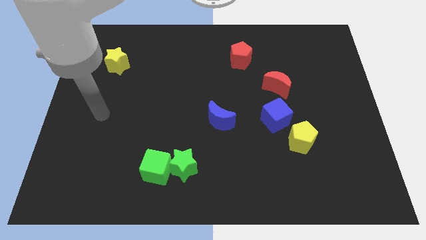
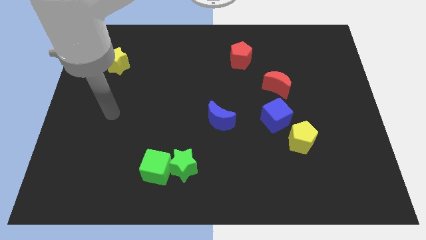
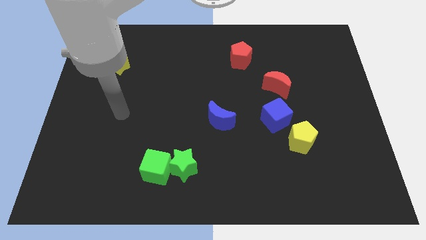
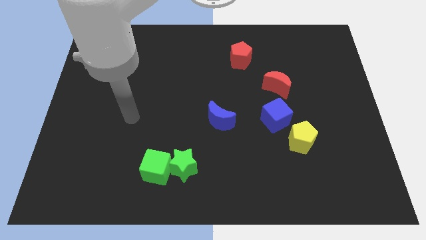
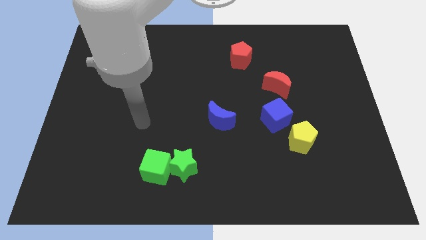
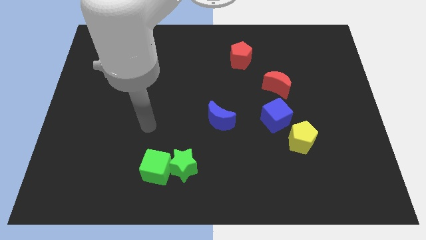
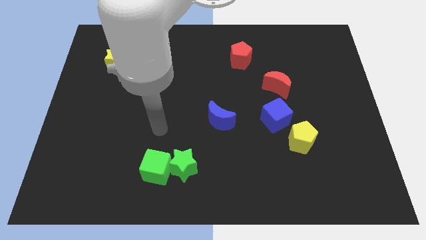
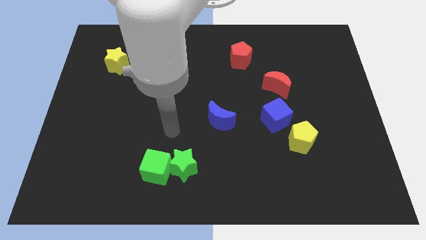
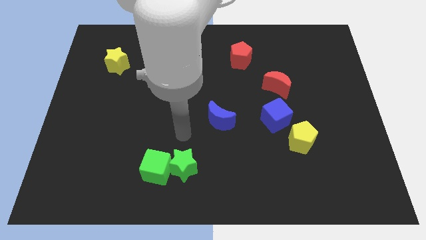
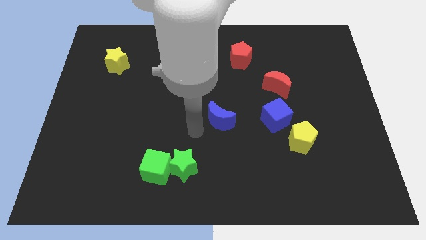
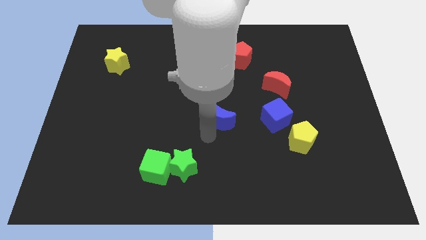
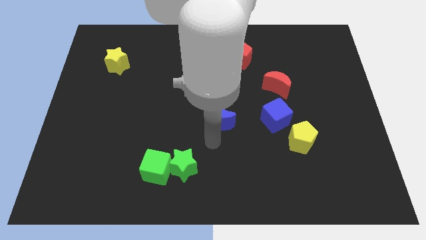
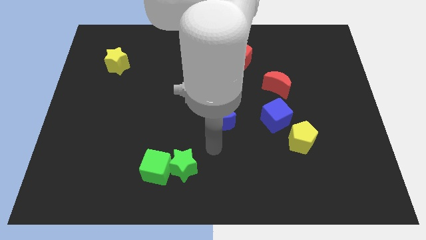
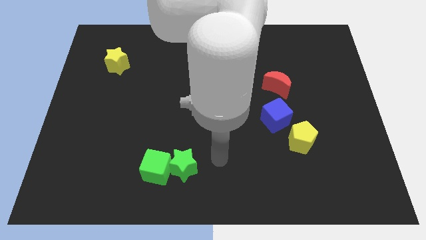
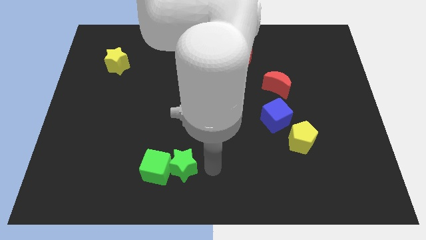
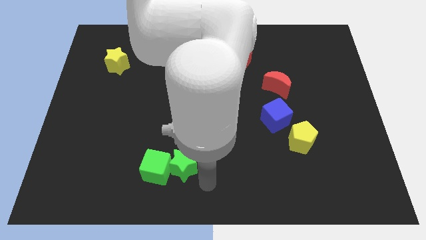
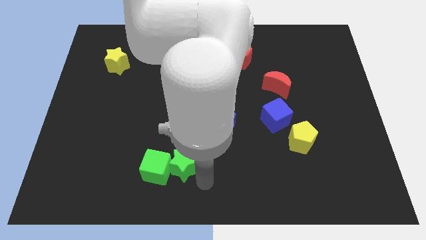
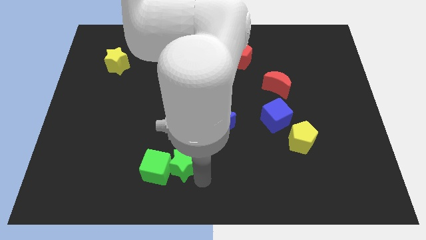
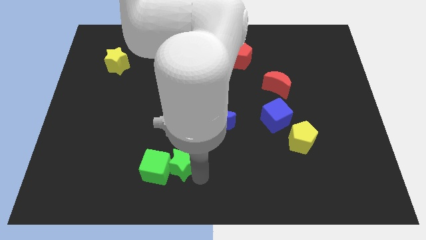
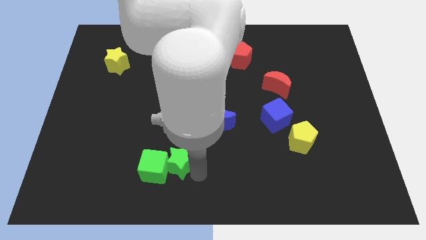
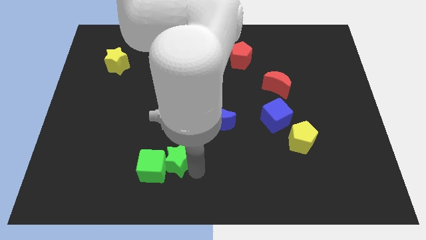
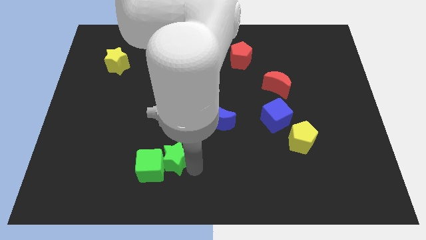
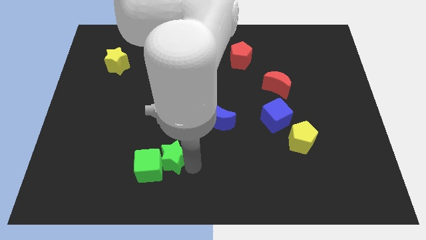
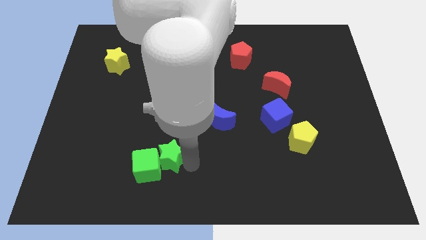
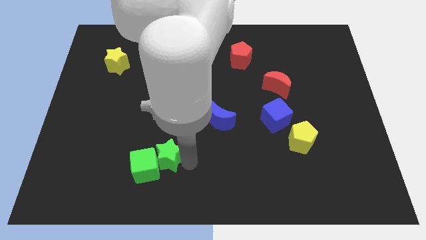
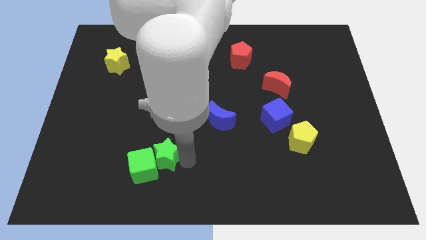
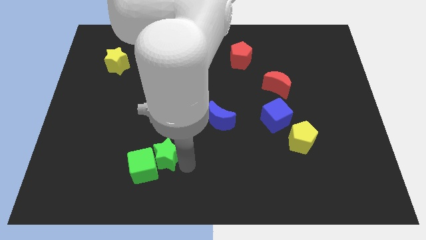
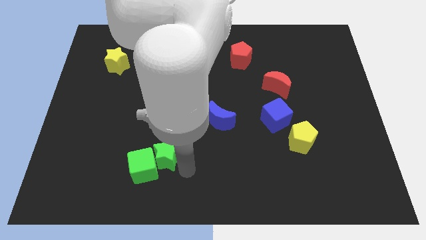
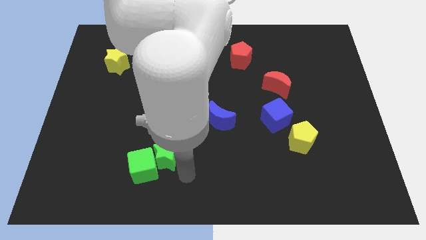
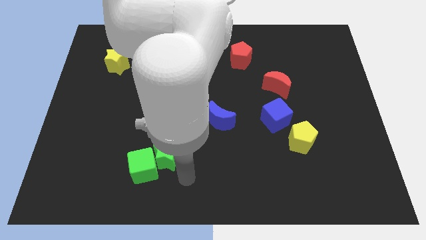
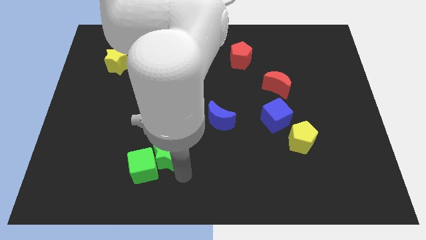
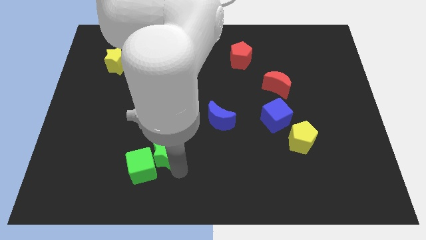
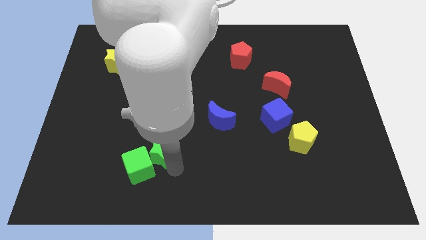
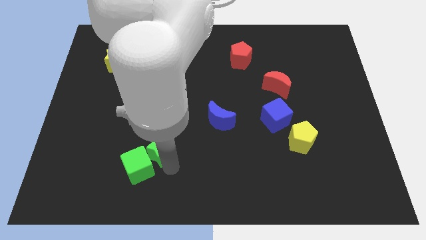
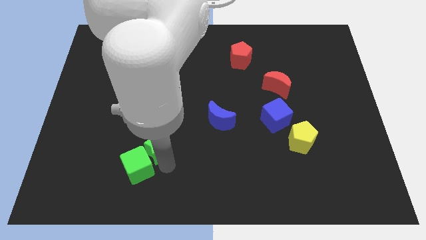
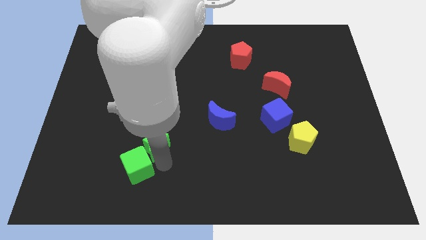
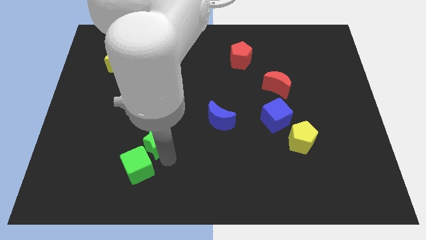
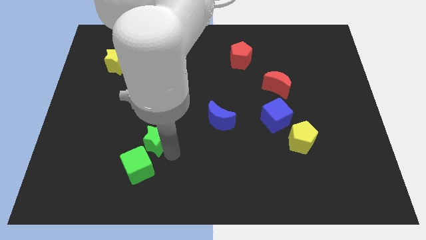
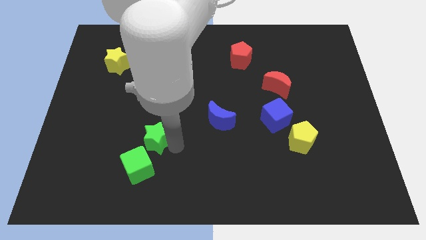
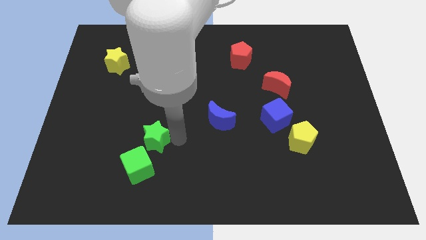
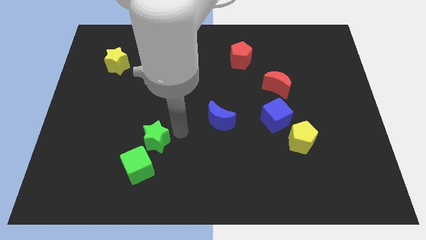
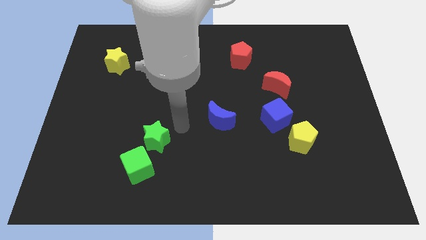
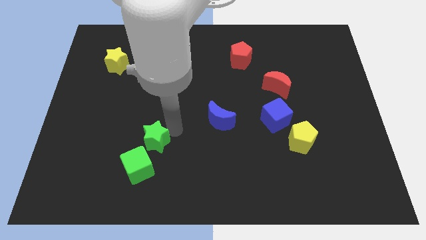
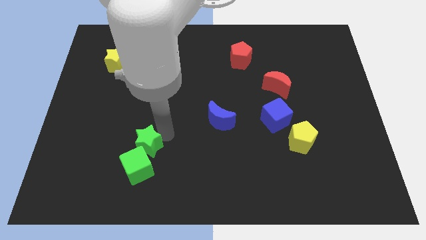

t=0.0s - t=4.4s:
slightly push the green star to the left

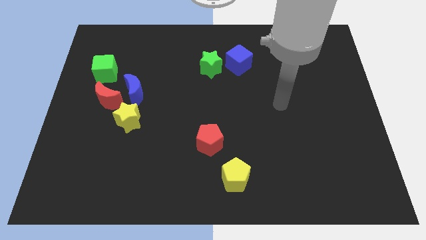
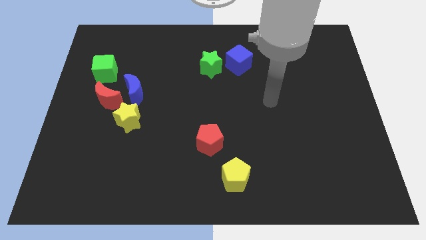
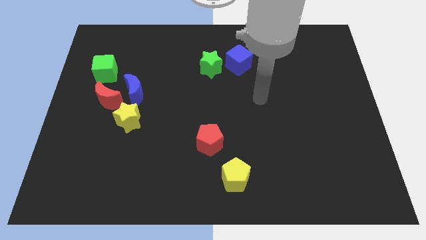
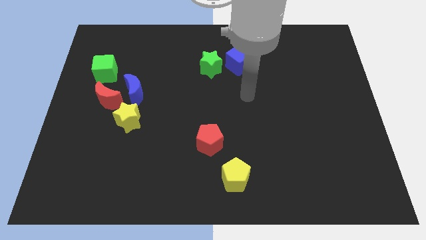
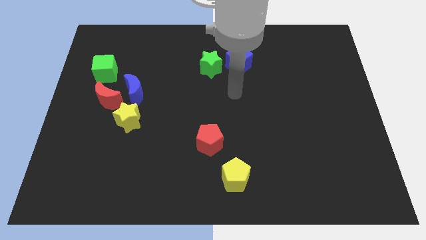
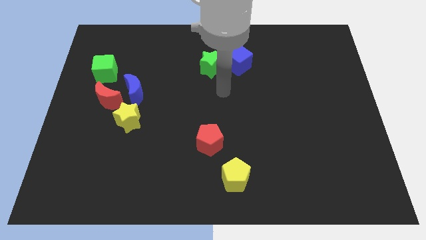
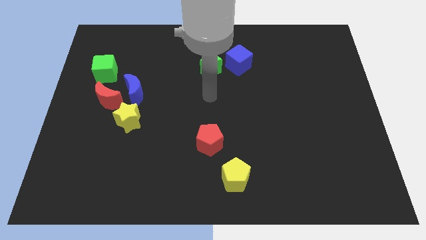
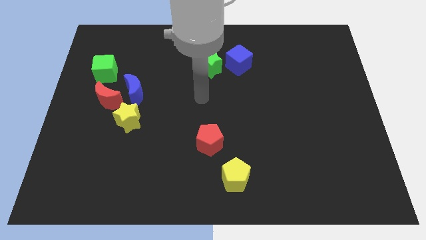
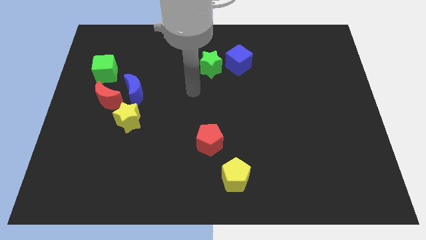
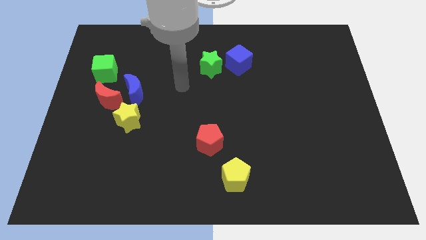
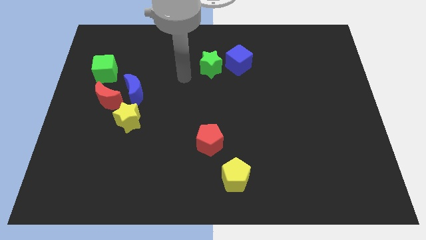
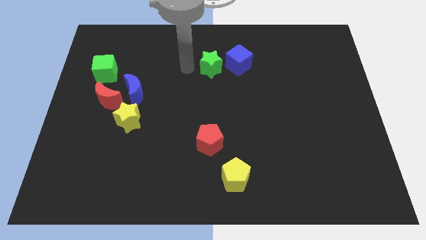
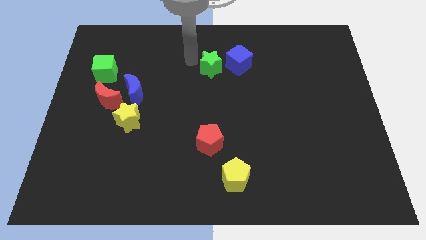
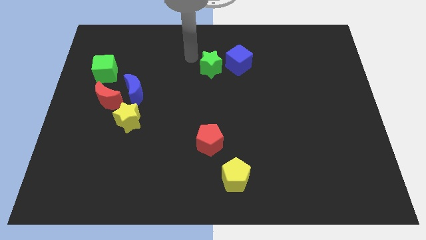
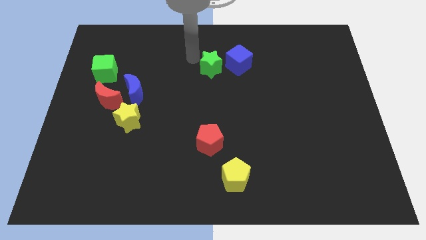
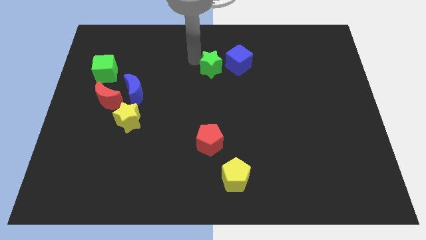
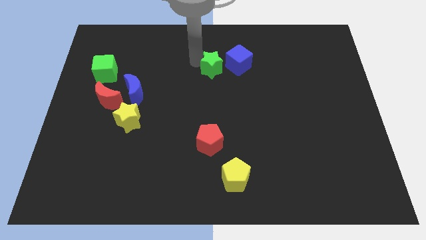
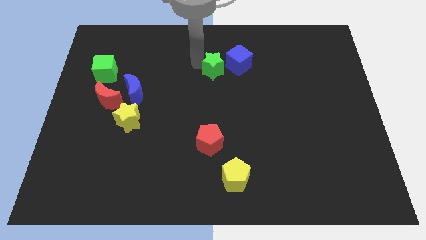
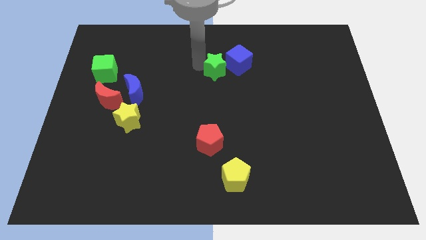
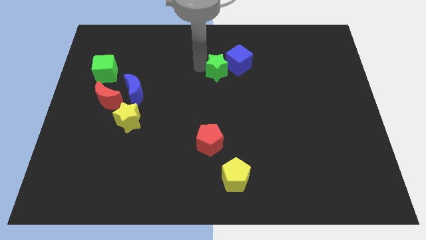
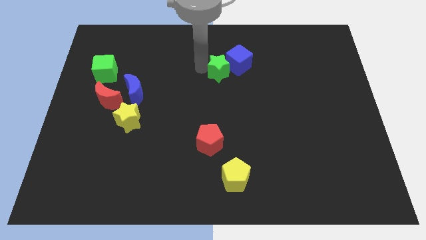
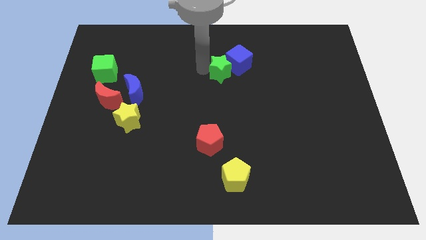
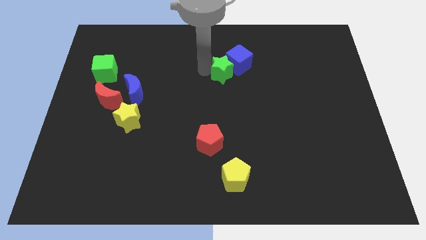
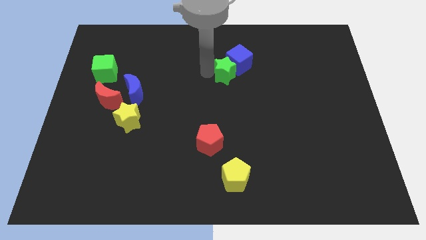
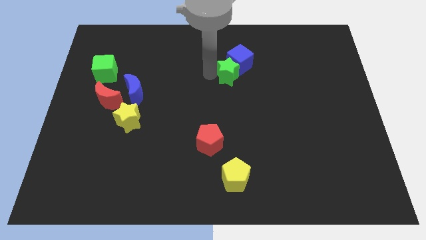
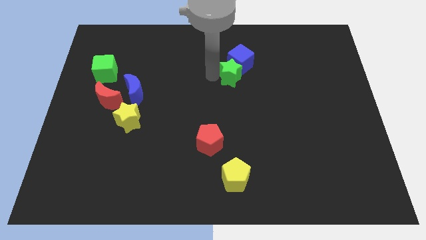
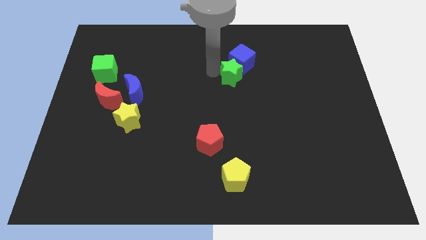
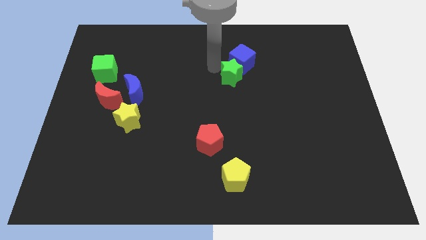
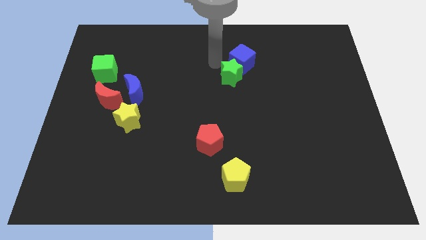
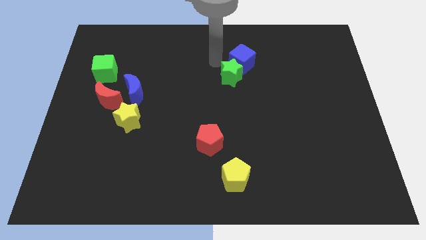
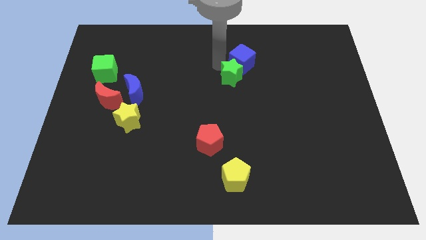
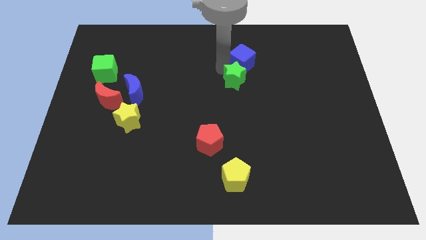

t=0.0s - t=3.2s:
push the green star downwards and right a little

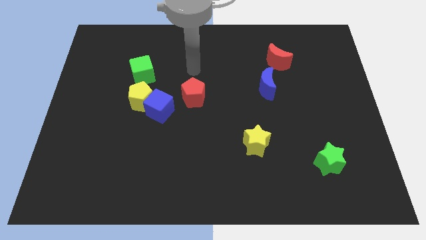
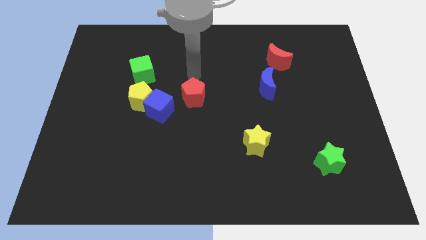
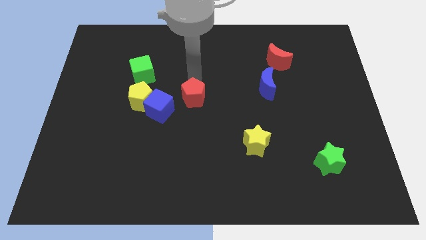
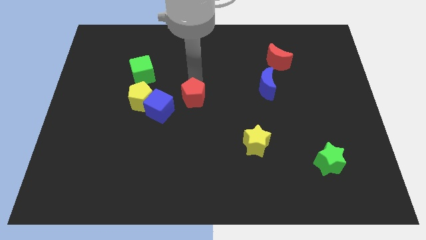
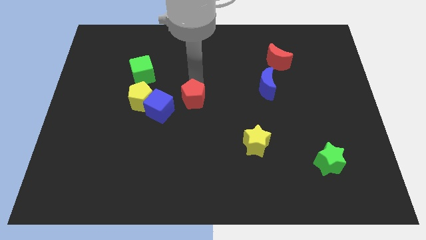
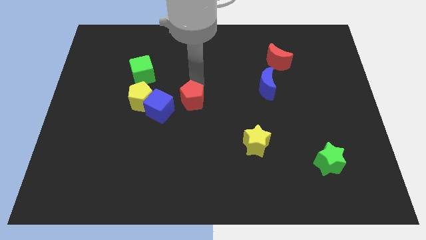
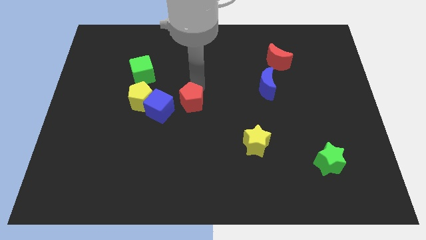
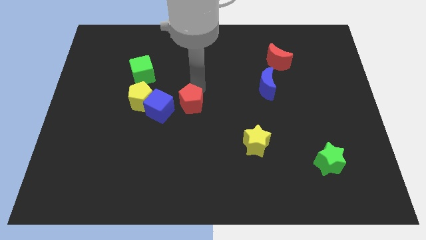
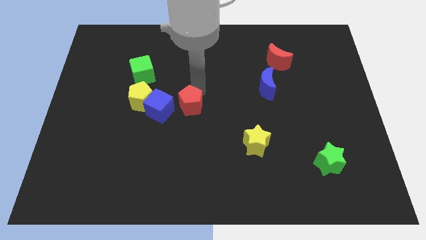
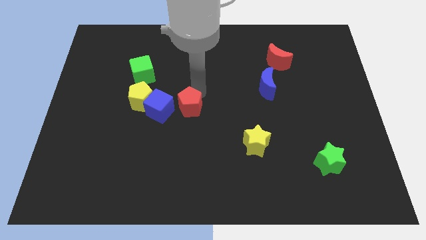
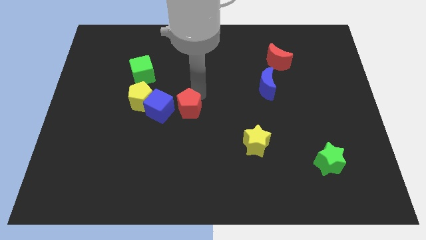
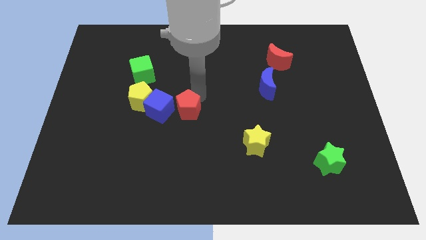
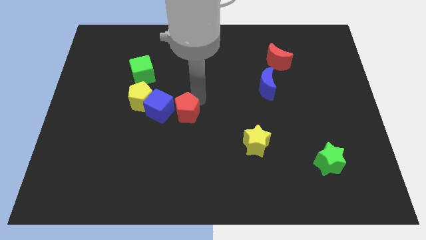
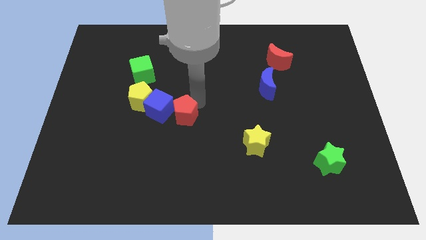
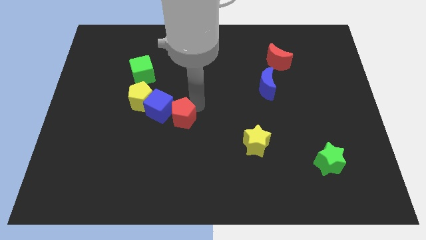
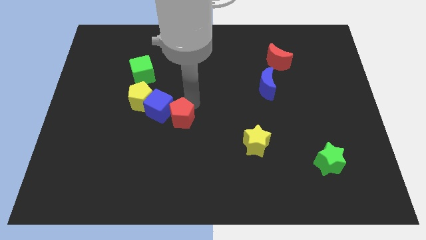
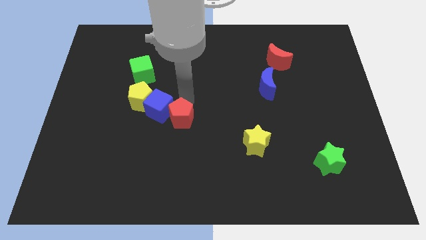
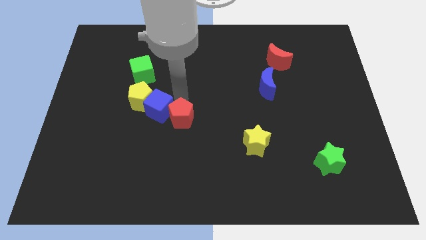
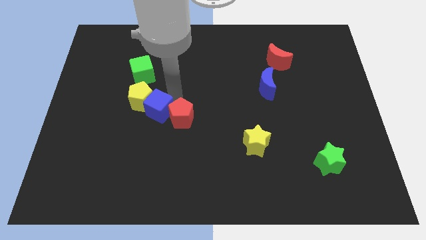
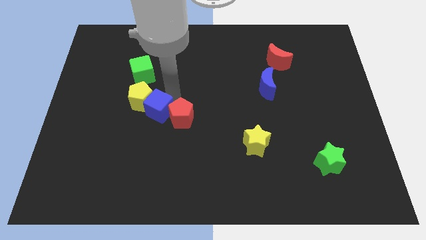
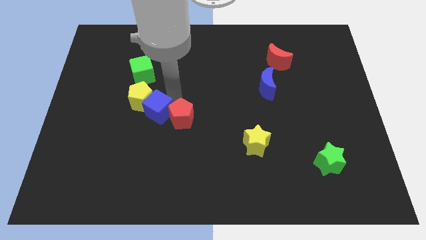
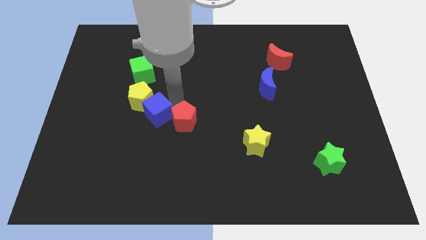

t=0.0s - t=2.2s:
push the red pentagon down somewhat
